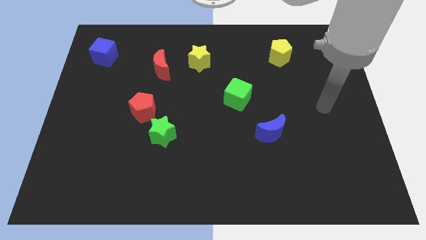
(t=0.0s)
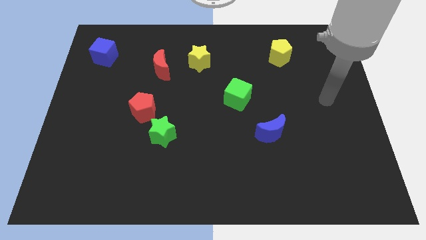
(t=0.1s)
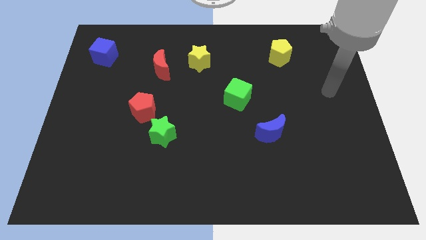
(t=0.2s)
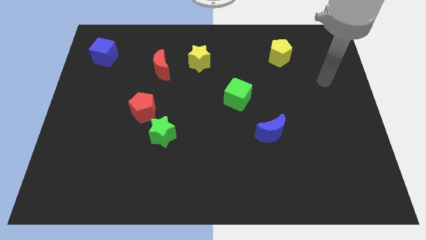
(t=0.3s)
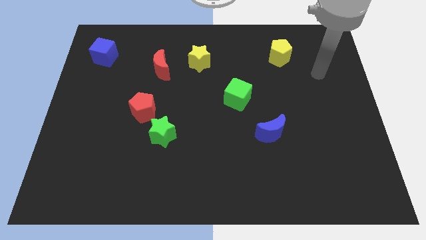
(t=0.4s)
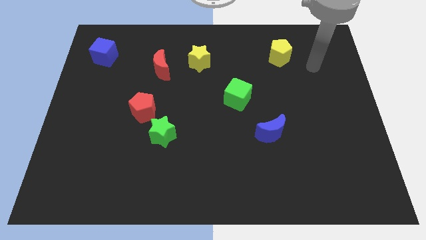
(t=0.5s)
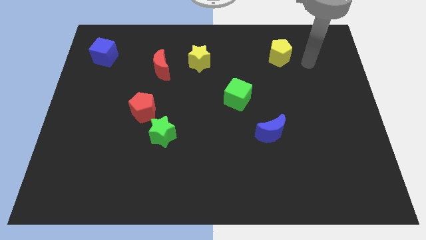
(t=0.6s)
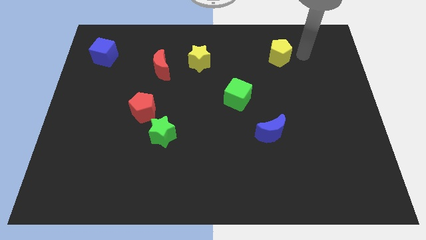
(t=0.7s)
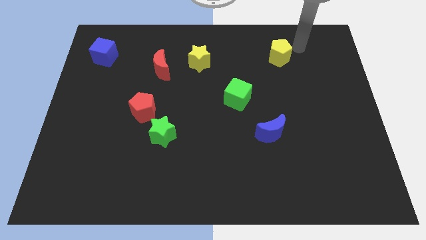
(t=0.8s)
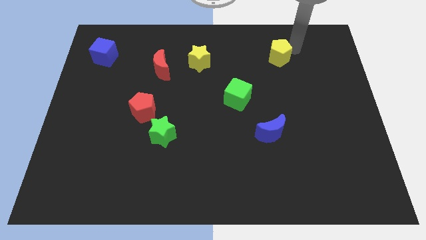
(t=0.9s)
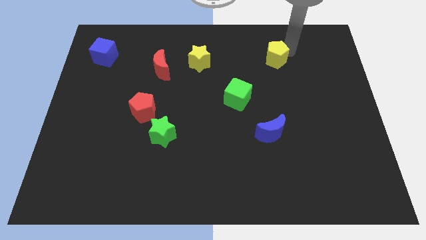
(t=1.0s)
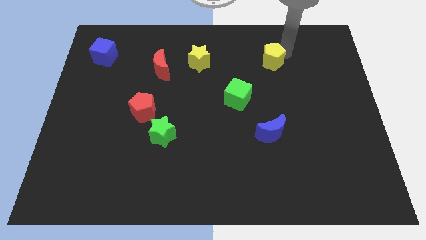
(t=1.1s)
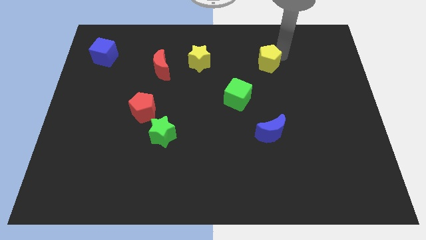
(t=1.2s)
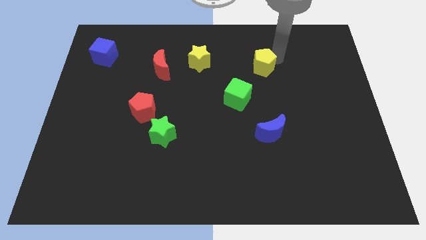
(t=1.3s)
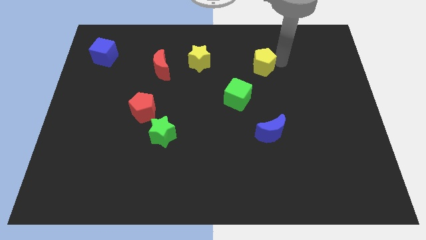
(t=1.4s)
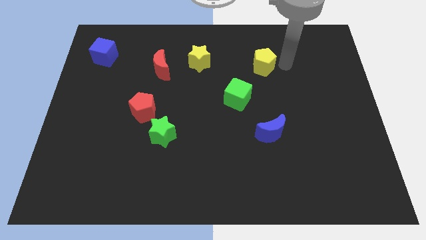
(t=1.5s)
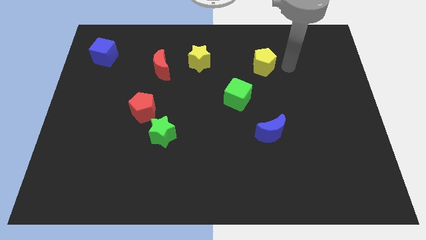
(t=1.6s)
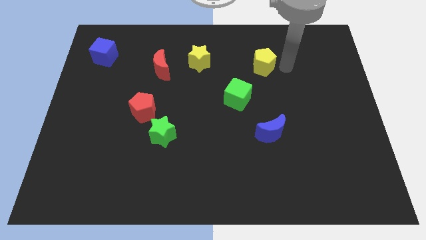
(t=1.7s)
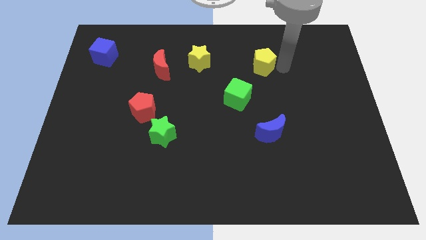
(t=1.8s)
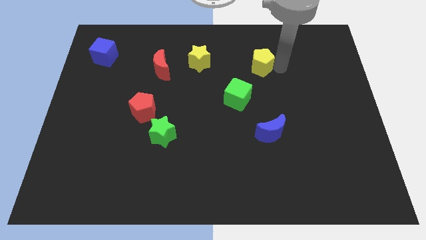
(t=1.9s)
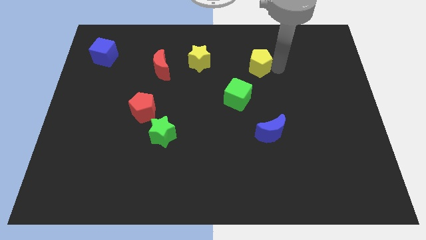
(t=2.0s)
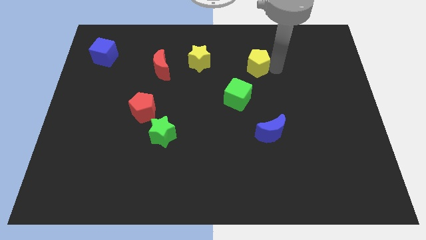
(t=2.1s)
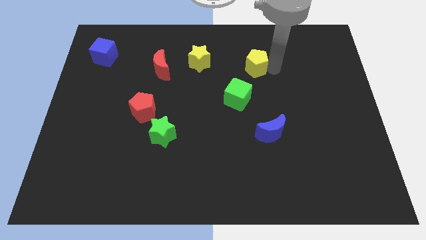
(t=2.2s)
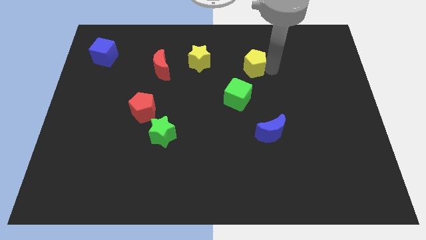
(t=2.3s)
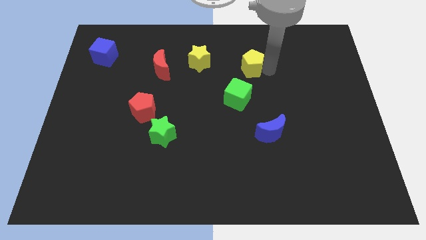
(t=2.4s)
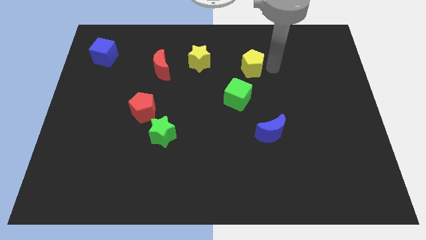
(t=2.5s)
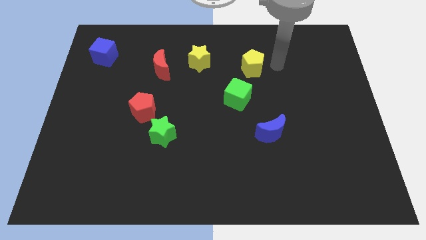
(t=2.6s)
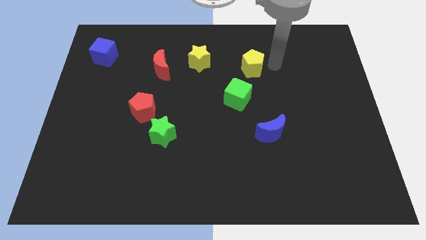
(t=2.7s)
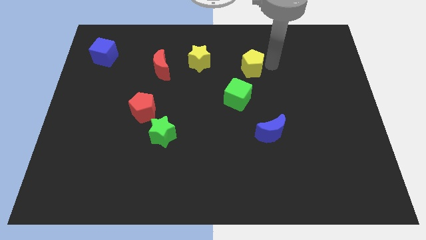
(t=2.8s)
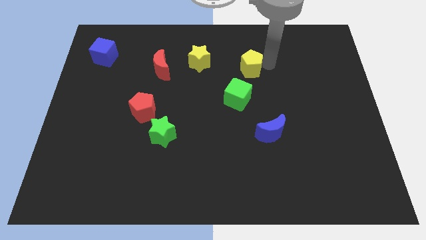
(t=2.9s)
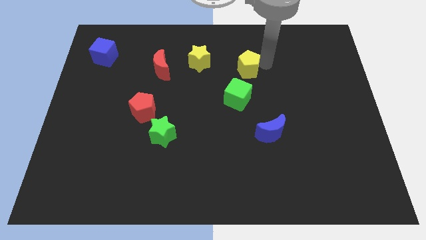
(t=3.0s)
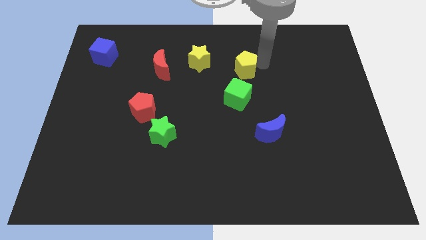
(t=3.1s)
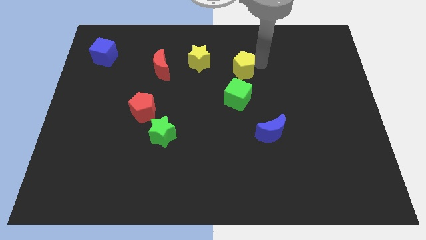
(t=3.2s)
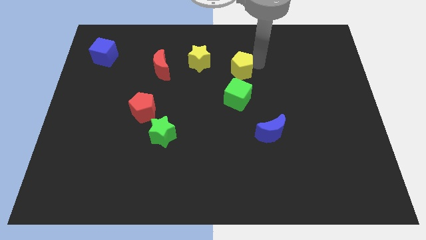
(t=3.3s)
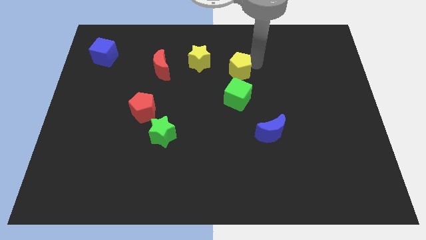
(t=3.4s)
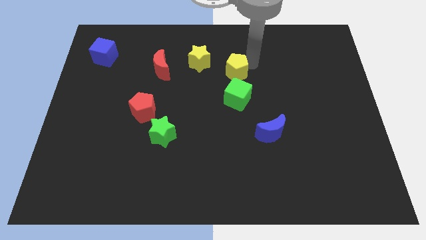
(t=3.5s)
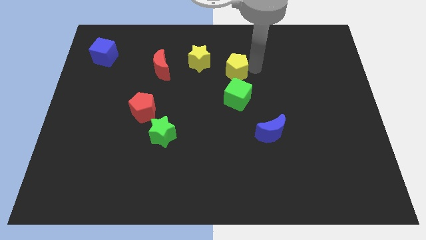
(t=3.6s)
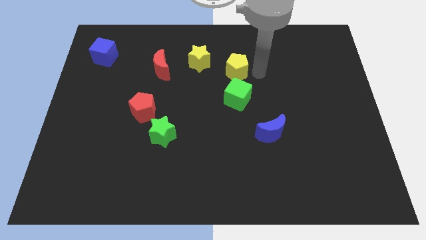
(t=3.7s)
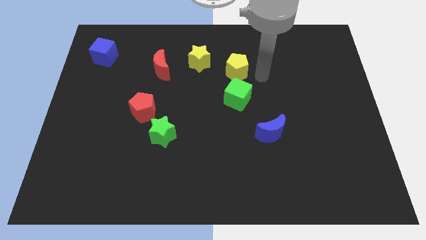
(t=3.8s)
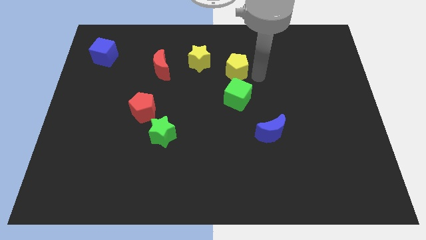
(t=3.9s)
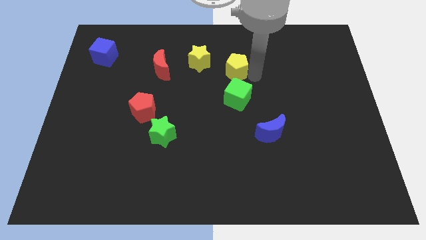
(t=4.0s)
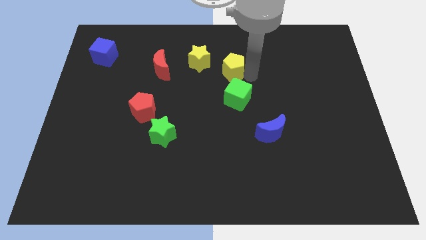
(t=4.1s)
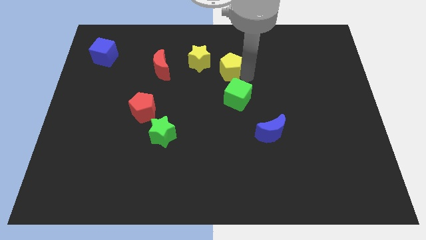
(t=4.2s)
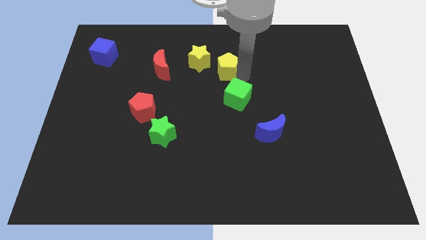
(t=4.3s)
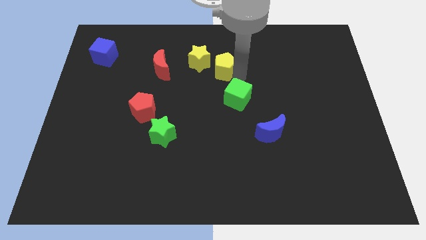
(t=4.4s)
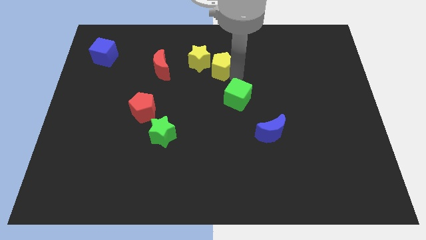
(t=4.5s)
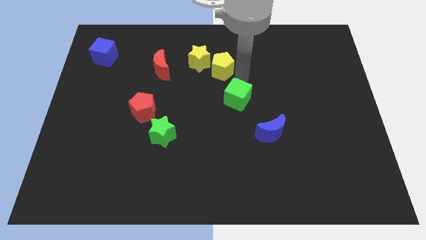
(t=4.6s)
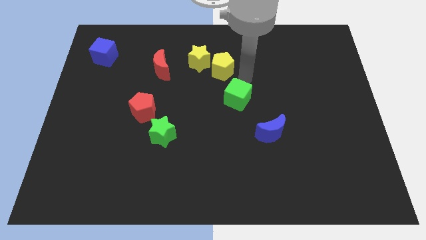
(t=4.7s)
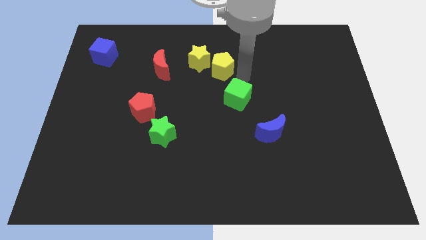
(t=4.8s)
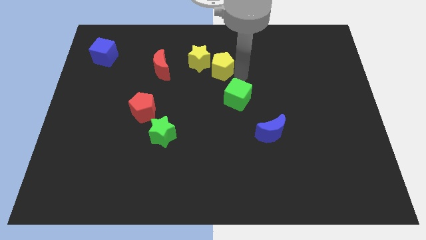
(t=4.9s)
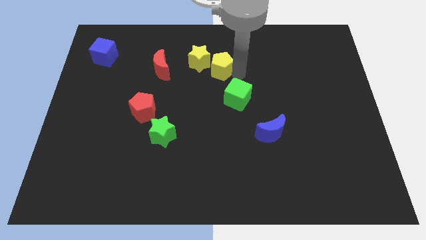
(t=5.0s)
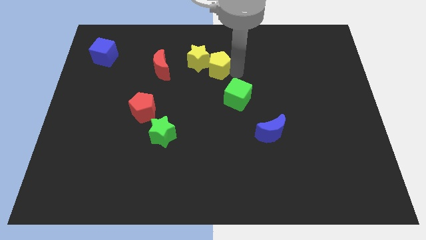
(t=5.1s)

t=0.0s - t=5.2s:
put the yellow pentagon to the yellow star

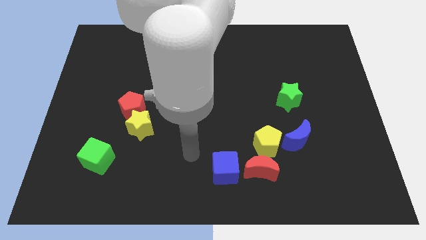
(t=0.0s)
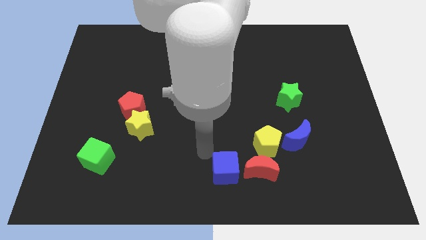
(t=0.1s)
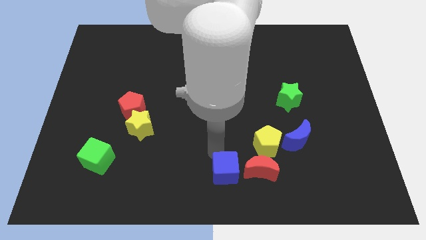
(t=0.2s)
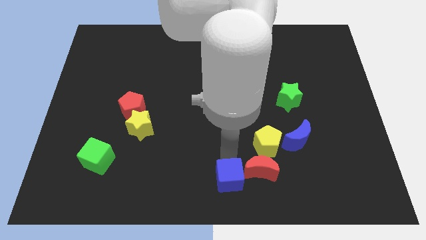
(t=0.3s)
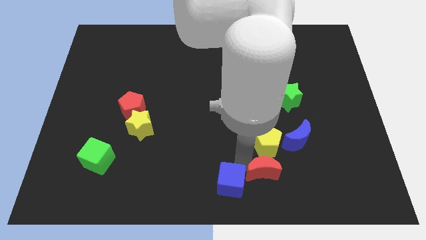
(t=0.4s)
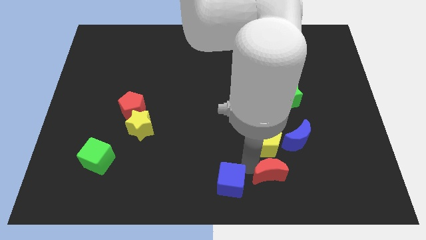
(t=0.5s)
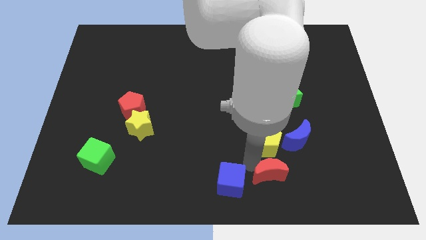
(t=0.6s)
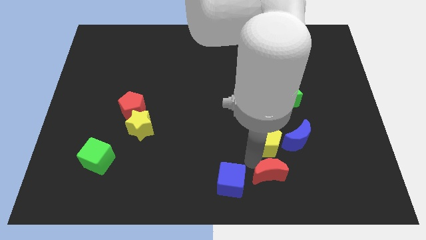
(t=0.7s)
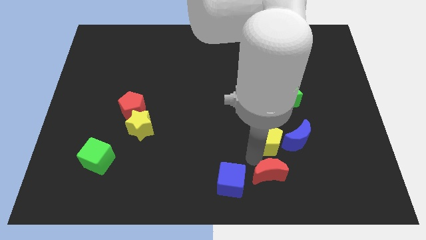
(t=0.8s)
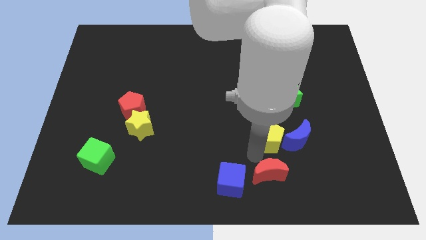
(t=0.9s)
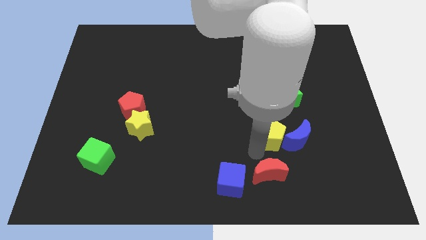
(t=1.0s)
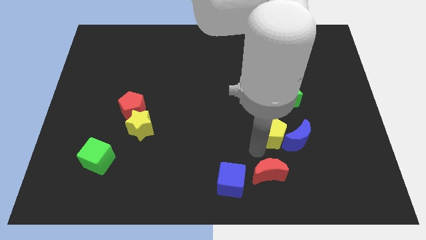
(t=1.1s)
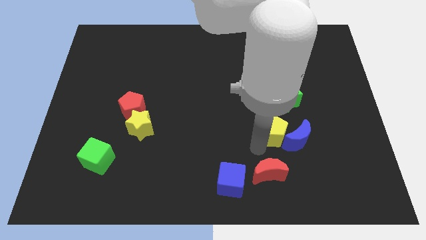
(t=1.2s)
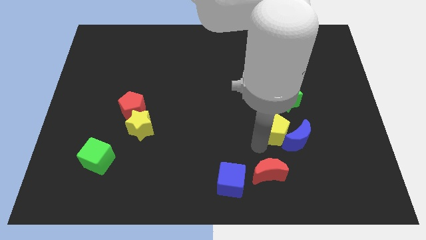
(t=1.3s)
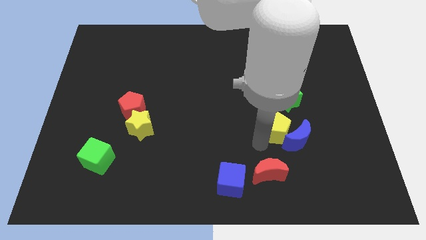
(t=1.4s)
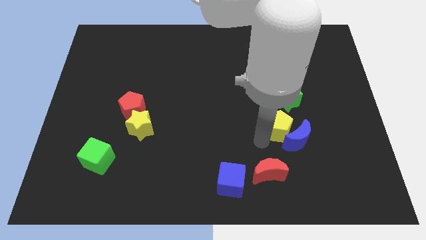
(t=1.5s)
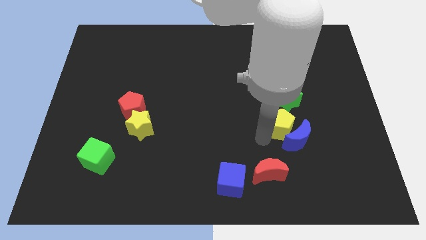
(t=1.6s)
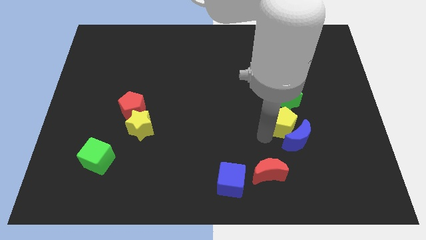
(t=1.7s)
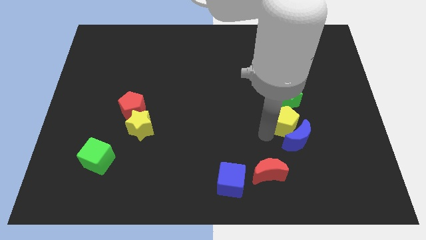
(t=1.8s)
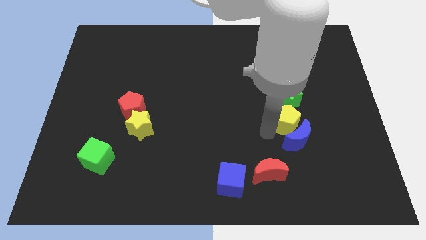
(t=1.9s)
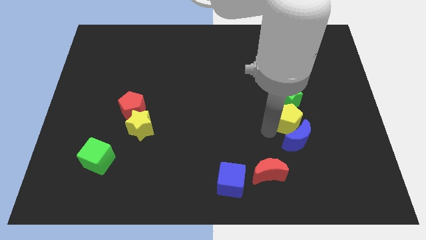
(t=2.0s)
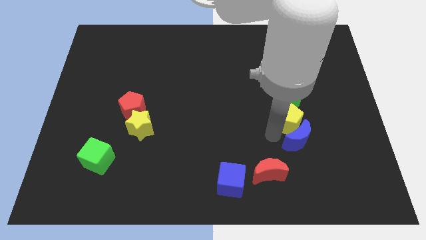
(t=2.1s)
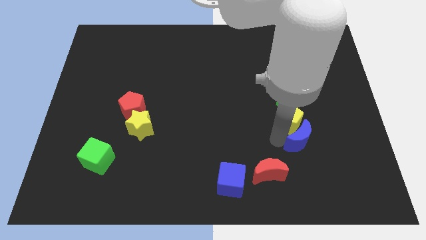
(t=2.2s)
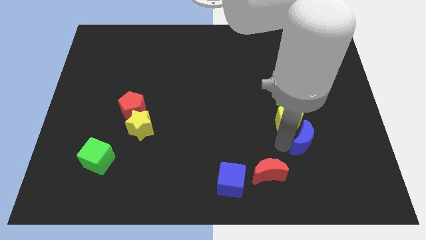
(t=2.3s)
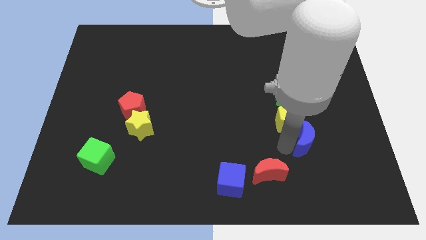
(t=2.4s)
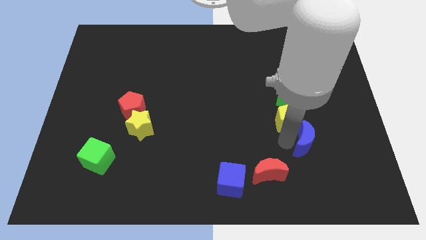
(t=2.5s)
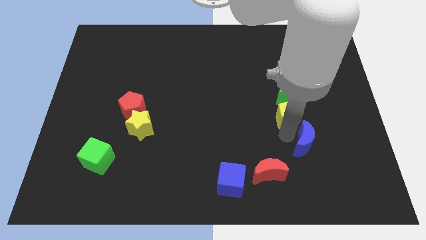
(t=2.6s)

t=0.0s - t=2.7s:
push the yellow pentagon to the green star
